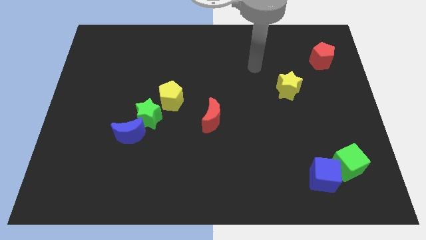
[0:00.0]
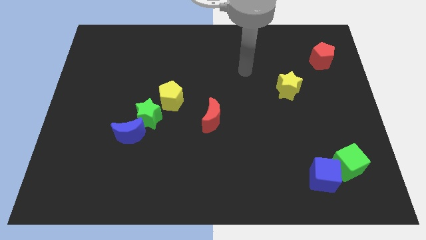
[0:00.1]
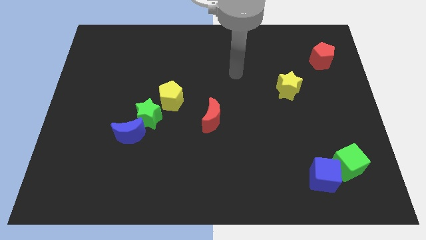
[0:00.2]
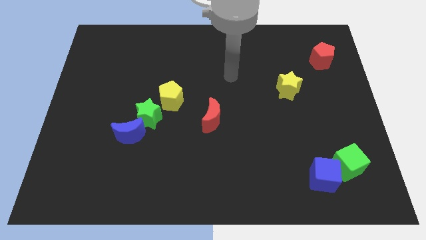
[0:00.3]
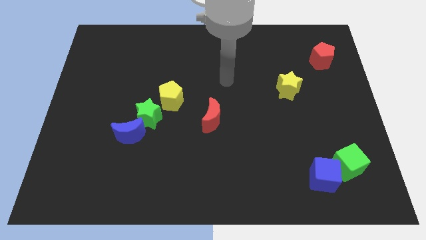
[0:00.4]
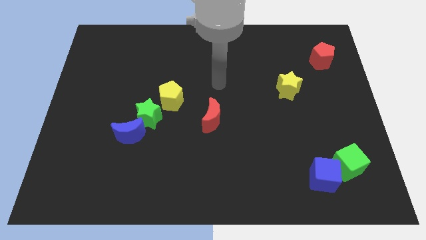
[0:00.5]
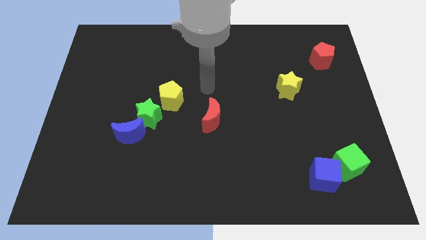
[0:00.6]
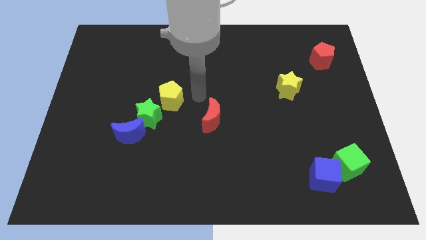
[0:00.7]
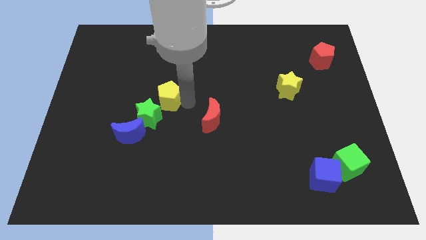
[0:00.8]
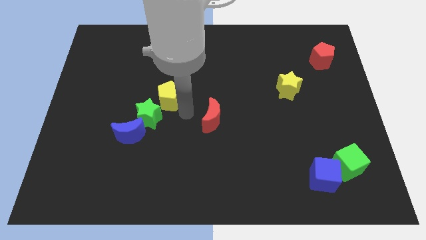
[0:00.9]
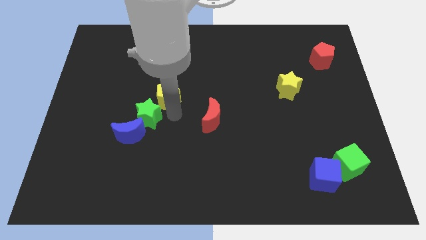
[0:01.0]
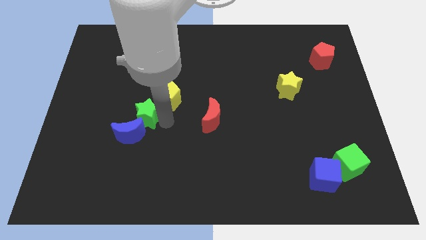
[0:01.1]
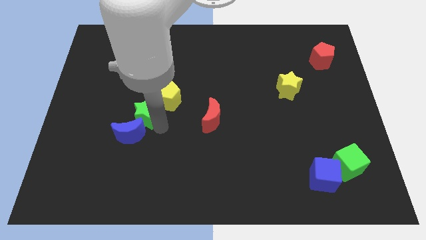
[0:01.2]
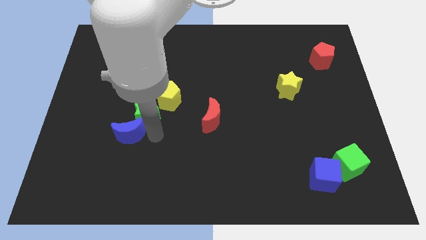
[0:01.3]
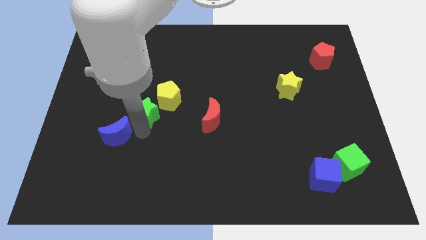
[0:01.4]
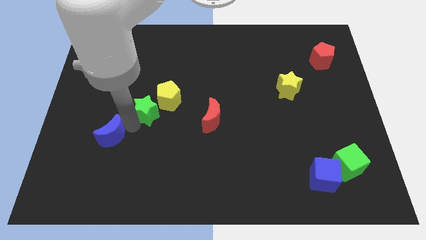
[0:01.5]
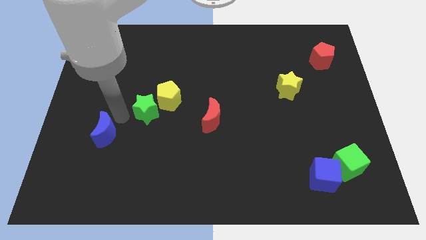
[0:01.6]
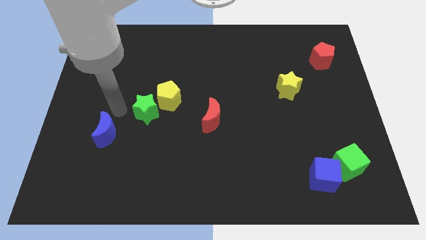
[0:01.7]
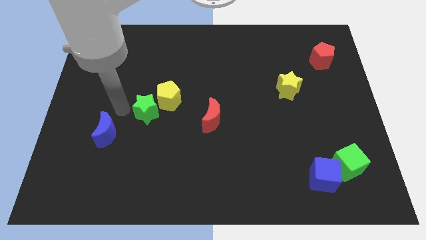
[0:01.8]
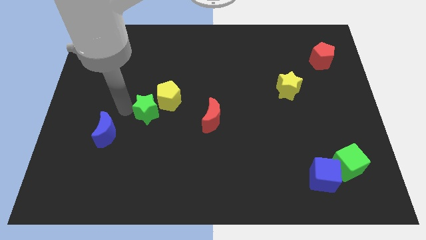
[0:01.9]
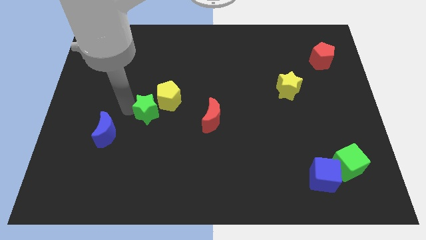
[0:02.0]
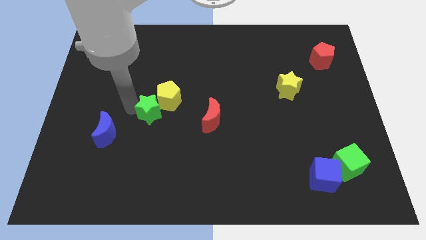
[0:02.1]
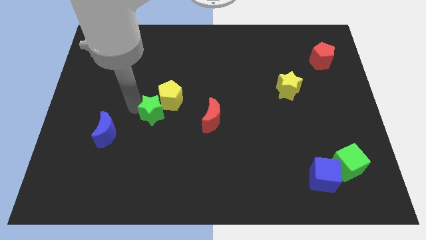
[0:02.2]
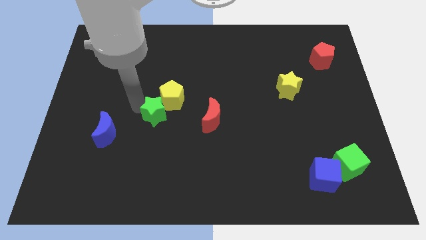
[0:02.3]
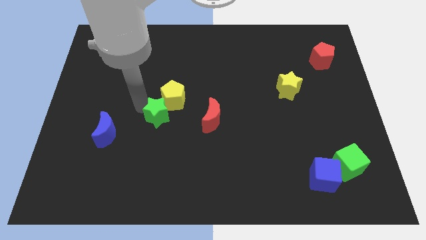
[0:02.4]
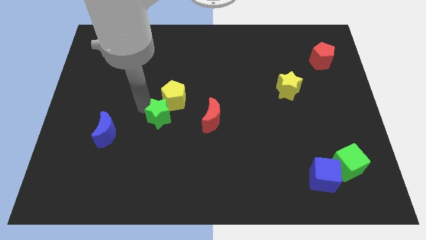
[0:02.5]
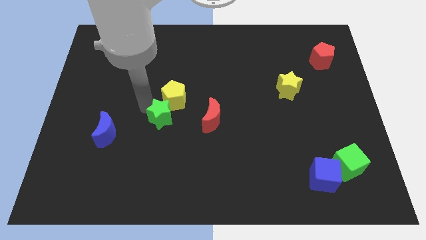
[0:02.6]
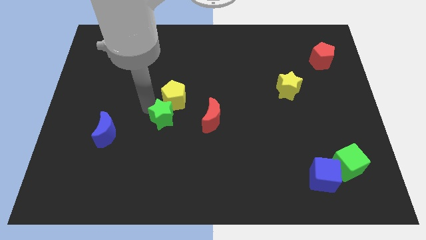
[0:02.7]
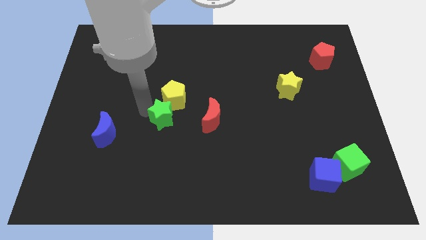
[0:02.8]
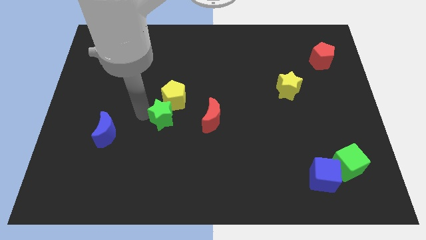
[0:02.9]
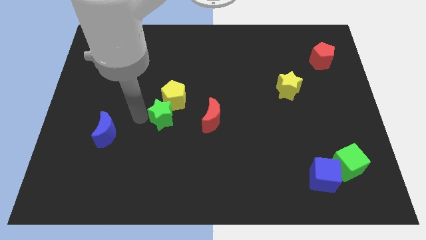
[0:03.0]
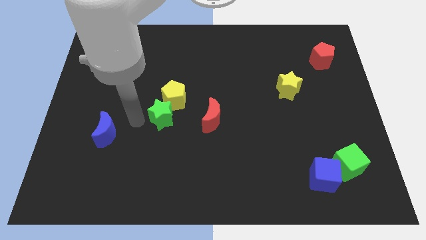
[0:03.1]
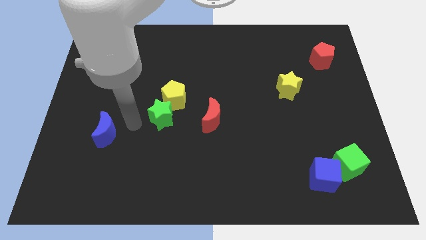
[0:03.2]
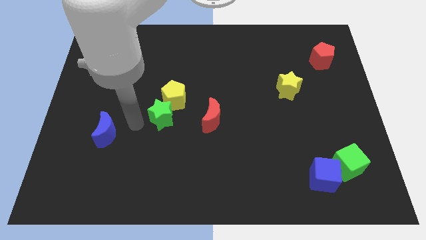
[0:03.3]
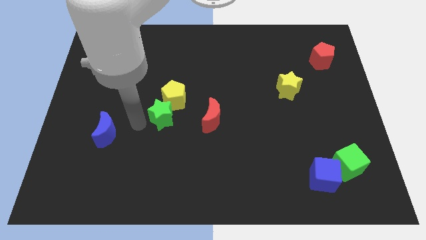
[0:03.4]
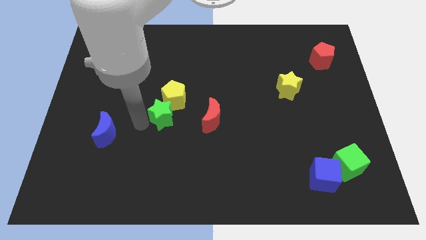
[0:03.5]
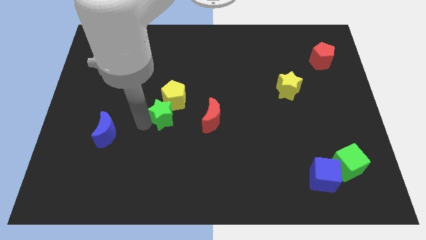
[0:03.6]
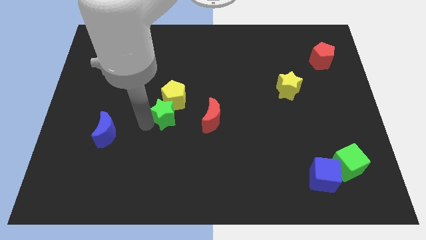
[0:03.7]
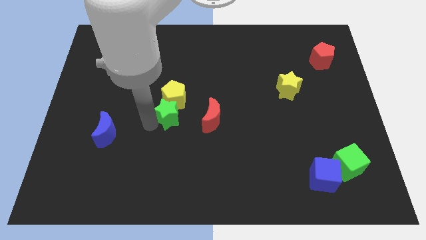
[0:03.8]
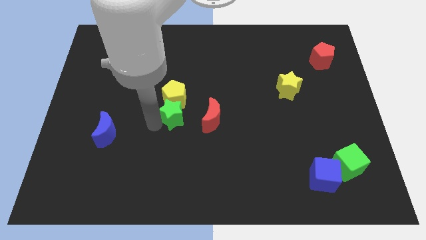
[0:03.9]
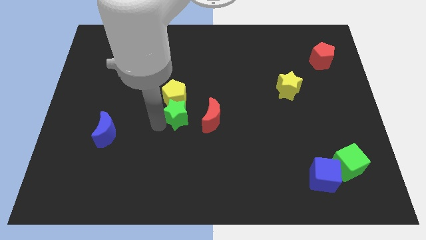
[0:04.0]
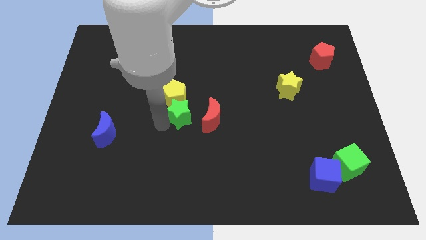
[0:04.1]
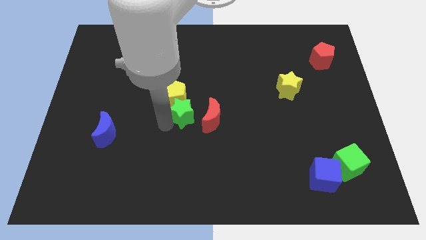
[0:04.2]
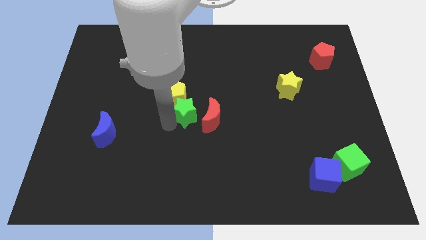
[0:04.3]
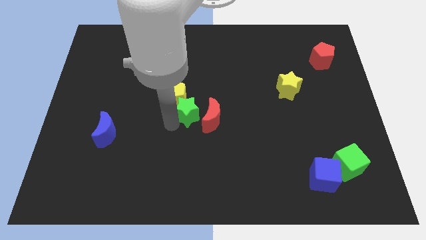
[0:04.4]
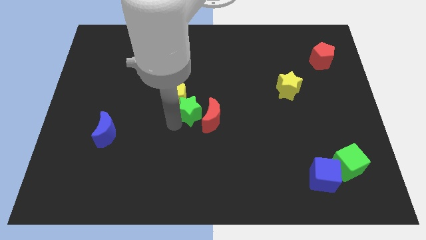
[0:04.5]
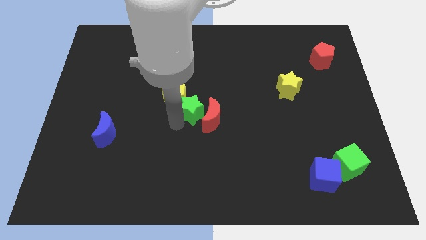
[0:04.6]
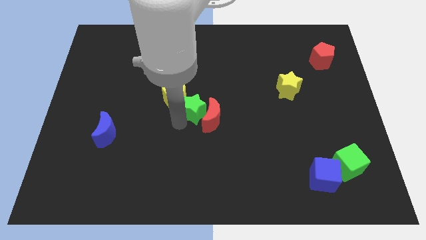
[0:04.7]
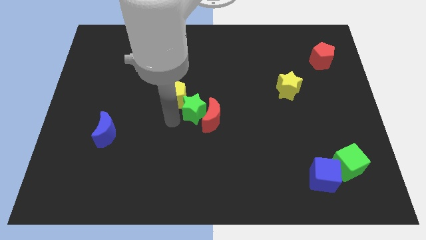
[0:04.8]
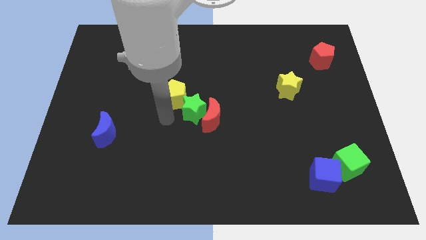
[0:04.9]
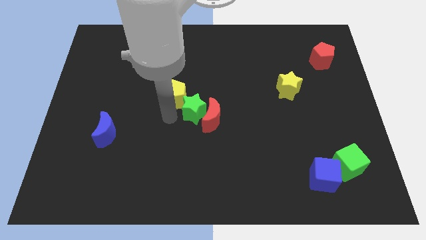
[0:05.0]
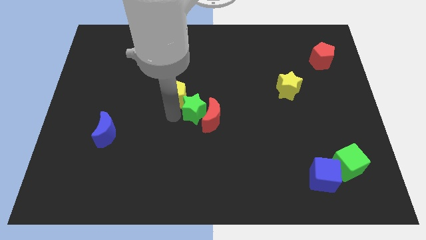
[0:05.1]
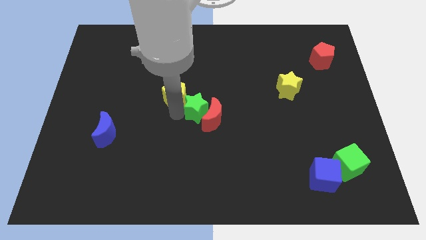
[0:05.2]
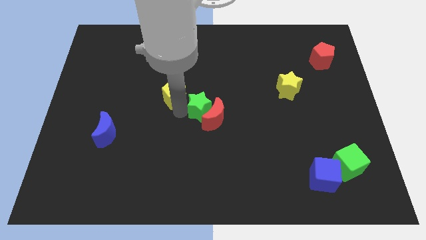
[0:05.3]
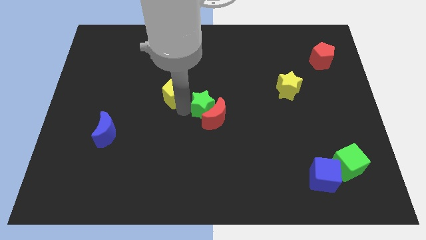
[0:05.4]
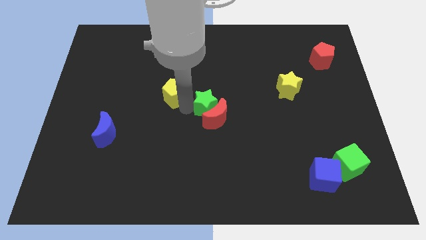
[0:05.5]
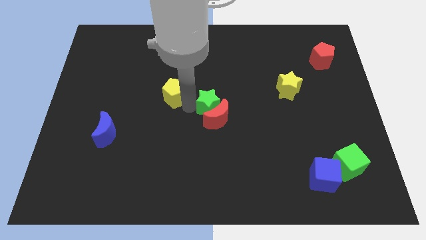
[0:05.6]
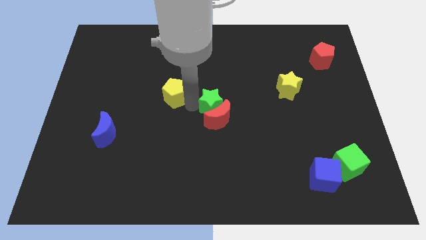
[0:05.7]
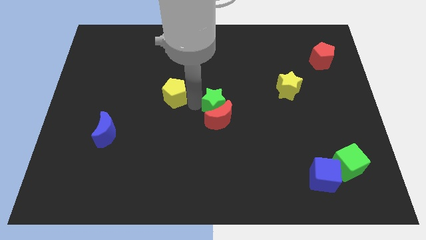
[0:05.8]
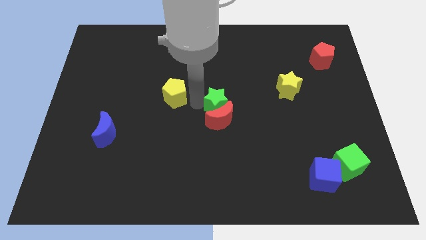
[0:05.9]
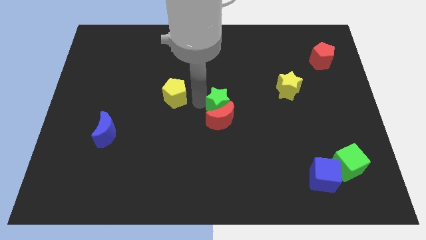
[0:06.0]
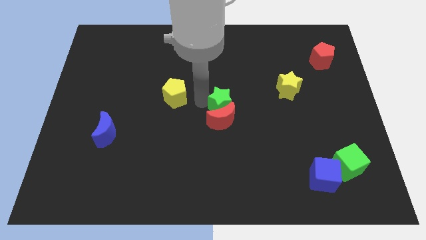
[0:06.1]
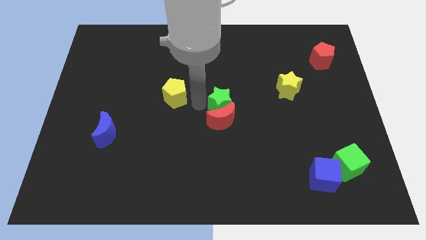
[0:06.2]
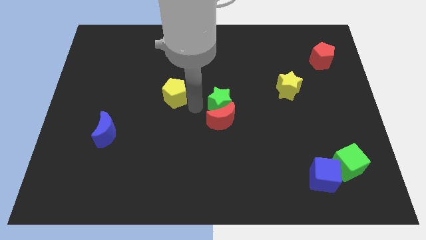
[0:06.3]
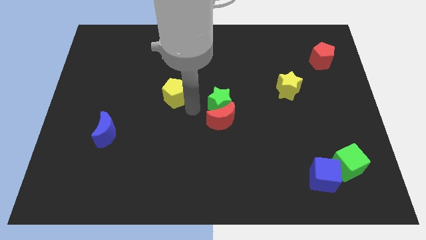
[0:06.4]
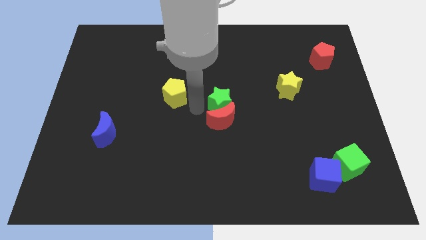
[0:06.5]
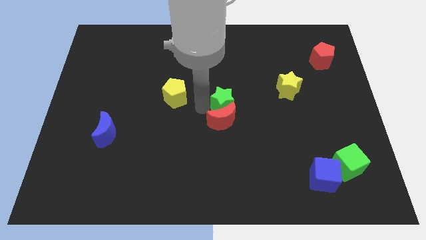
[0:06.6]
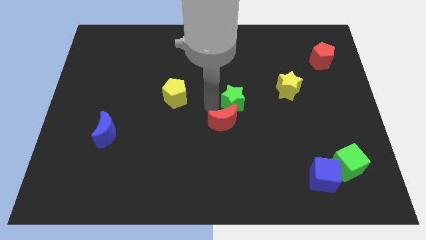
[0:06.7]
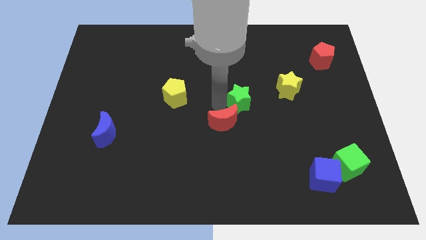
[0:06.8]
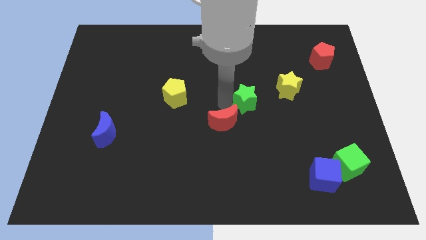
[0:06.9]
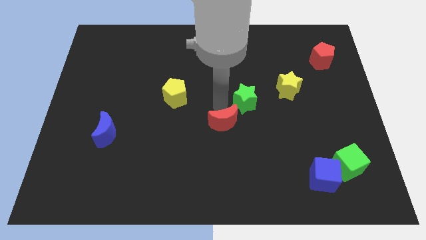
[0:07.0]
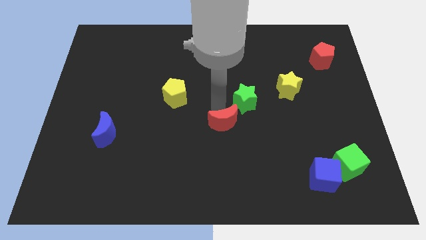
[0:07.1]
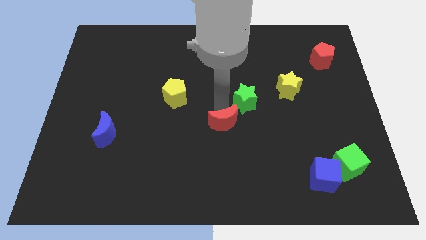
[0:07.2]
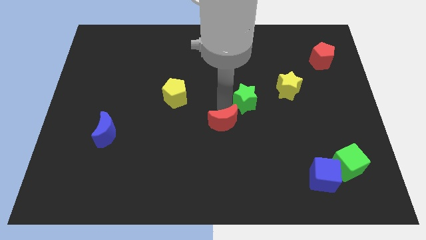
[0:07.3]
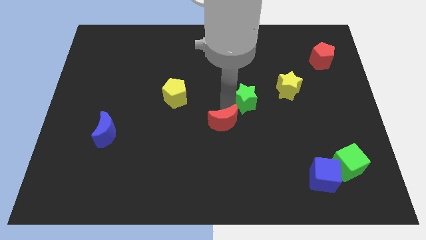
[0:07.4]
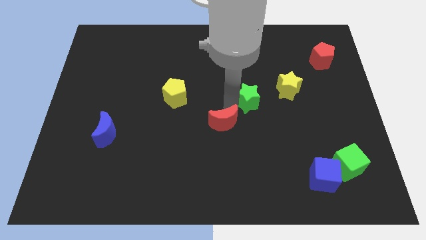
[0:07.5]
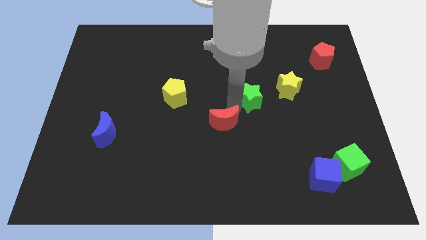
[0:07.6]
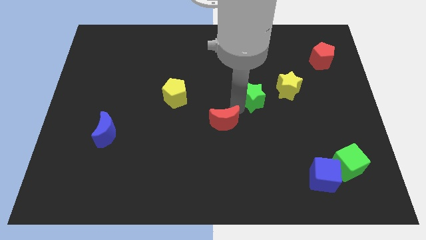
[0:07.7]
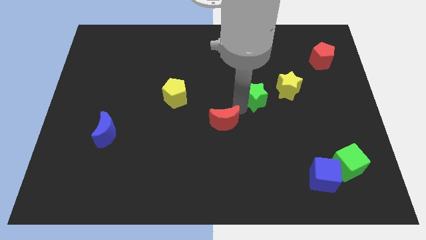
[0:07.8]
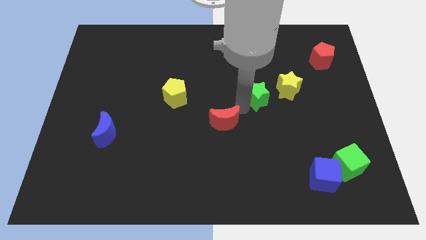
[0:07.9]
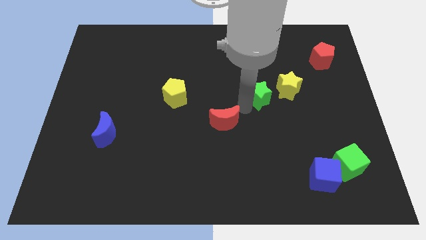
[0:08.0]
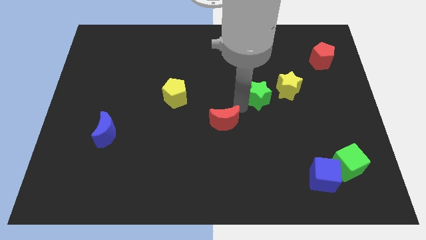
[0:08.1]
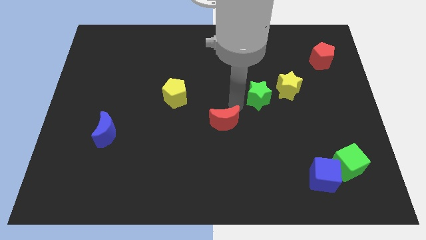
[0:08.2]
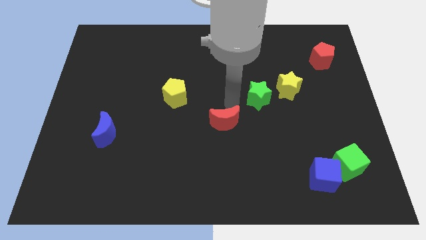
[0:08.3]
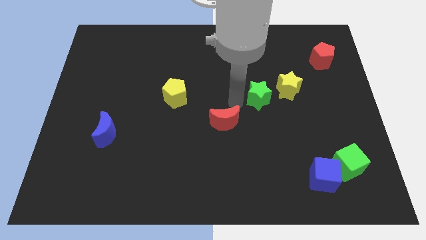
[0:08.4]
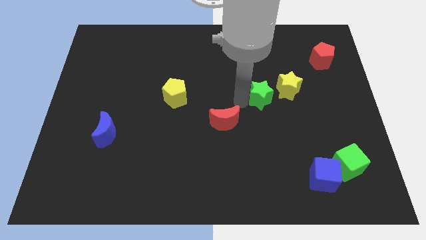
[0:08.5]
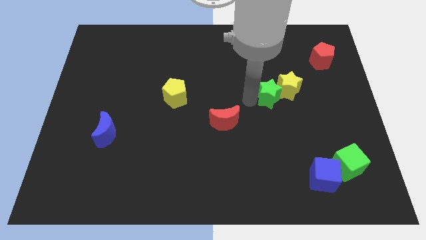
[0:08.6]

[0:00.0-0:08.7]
move the green star close to the yellow star
